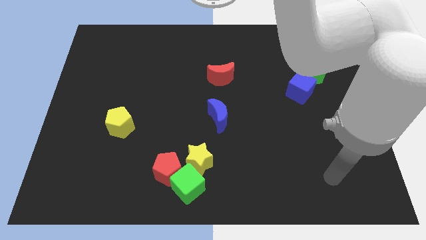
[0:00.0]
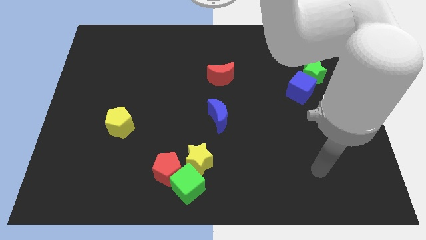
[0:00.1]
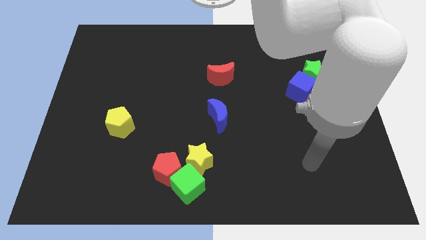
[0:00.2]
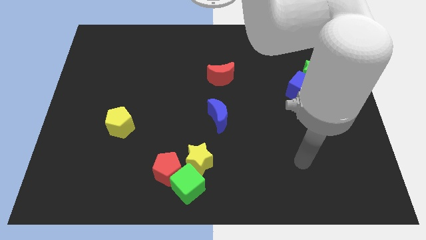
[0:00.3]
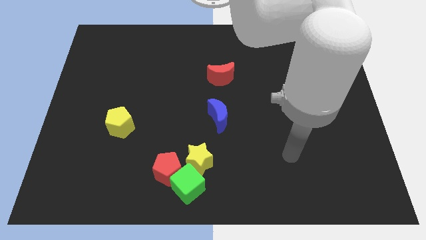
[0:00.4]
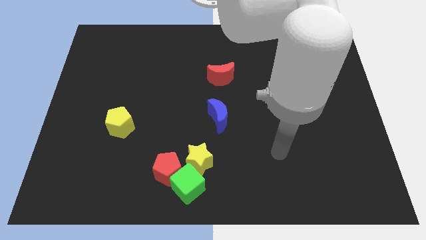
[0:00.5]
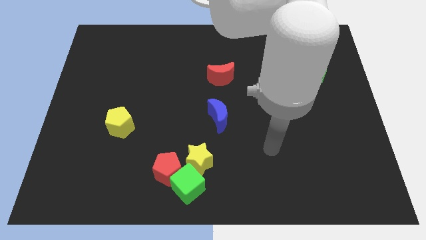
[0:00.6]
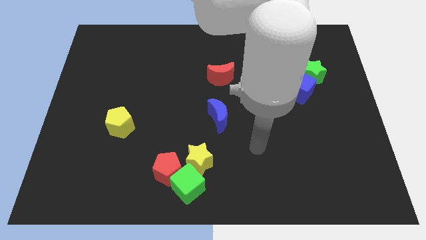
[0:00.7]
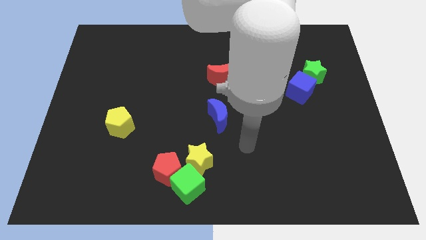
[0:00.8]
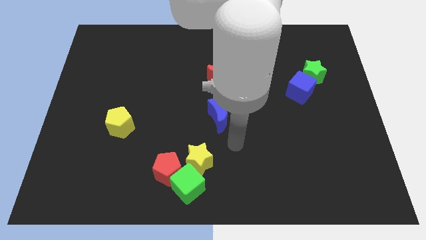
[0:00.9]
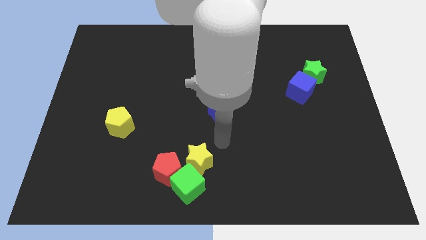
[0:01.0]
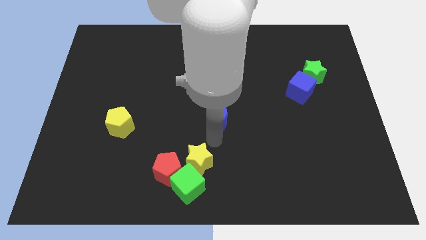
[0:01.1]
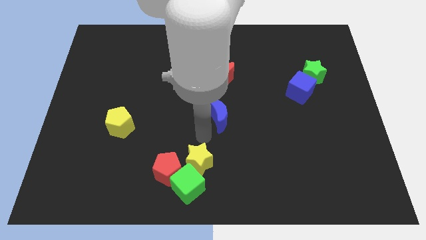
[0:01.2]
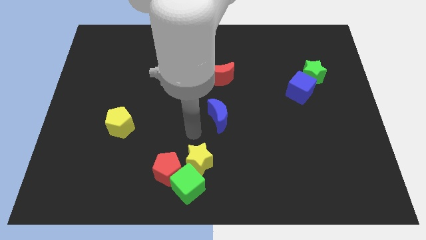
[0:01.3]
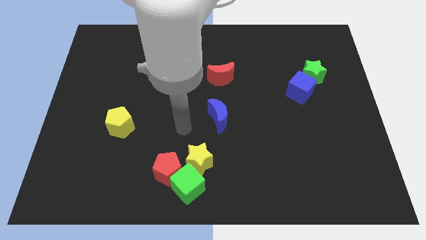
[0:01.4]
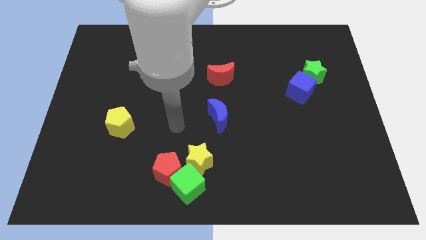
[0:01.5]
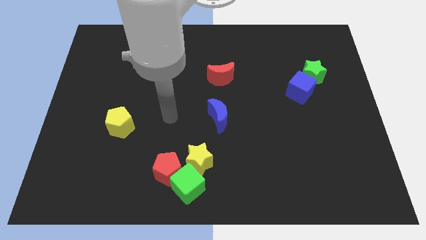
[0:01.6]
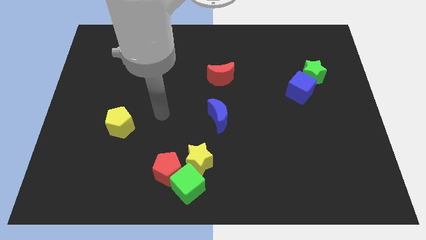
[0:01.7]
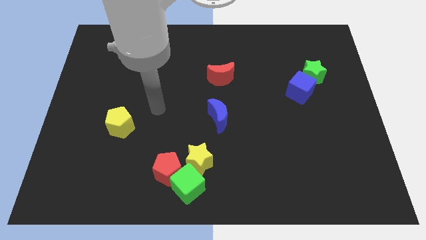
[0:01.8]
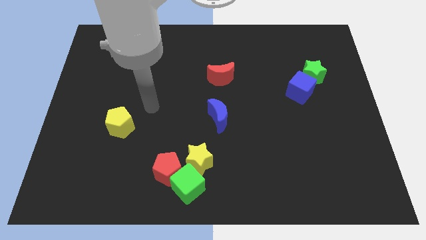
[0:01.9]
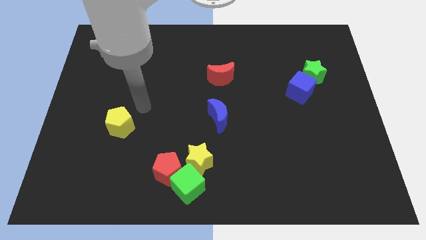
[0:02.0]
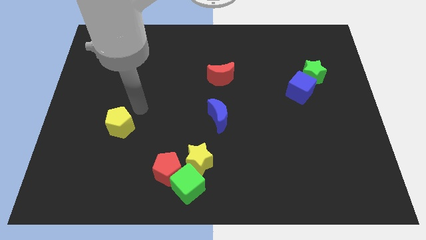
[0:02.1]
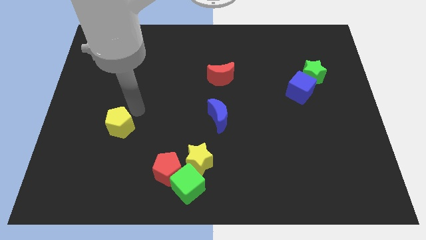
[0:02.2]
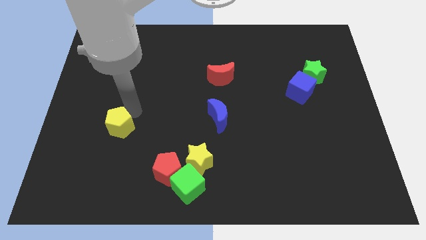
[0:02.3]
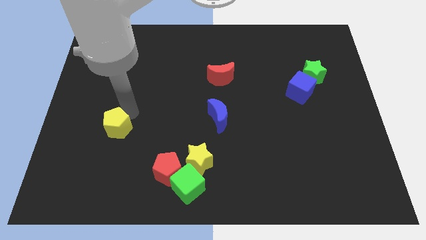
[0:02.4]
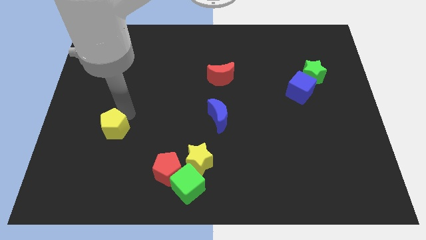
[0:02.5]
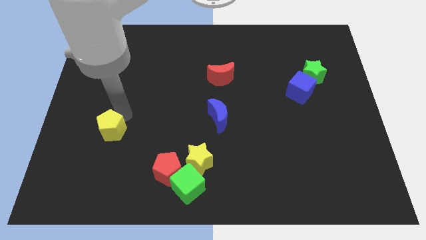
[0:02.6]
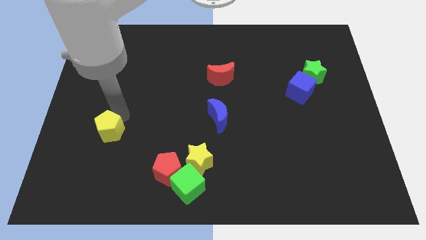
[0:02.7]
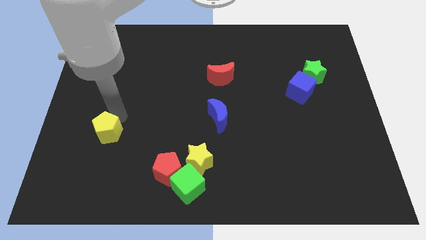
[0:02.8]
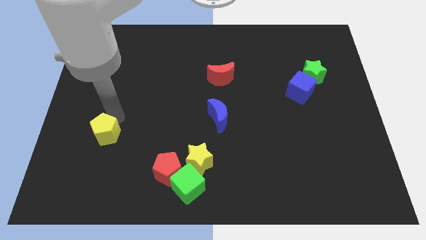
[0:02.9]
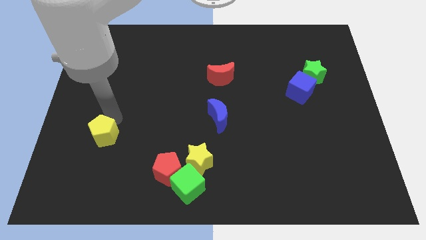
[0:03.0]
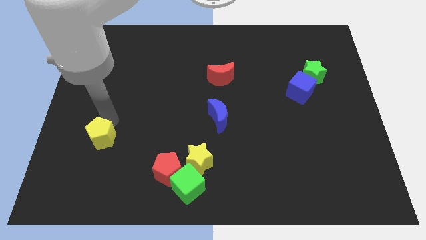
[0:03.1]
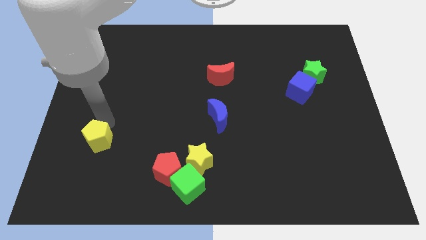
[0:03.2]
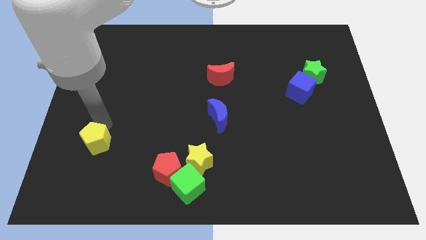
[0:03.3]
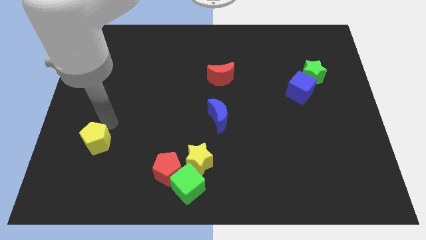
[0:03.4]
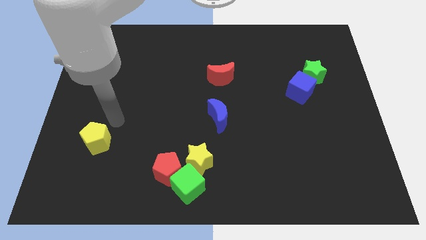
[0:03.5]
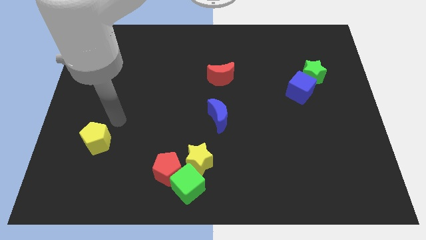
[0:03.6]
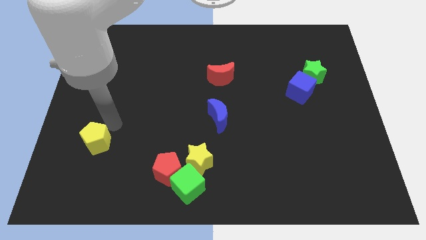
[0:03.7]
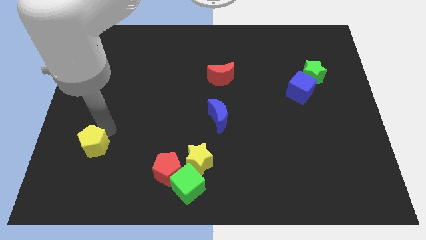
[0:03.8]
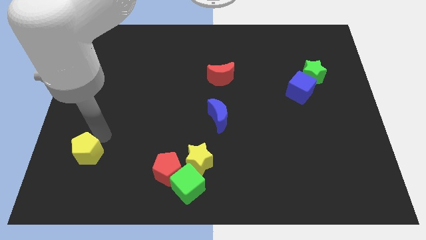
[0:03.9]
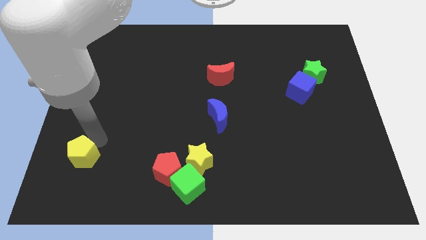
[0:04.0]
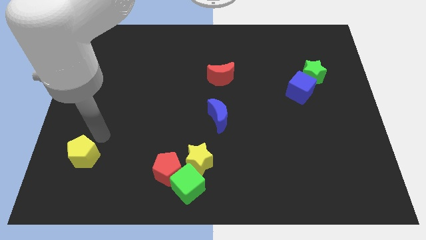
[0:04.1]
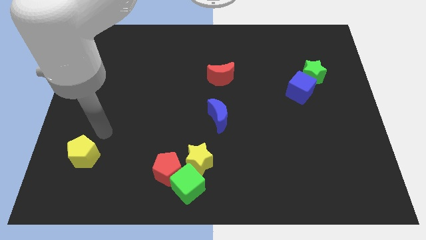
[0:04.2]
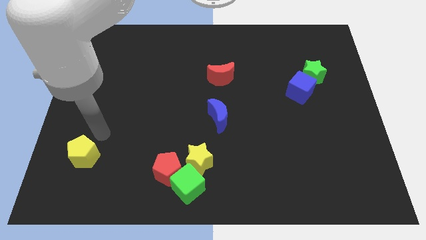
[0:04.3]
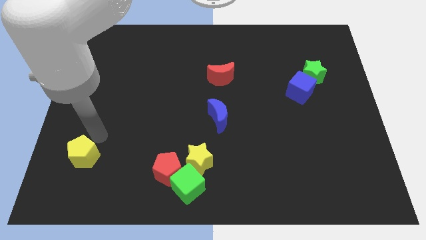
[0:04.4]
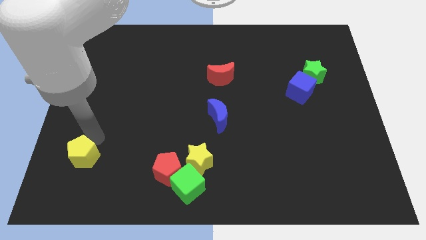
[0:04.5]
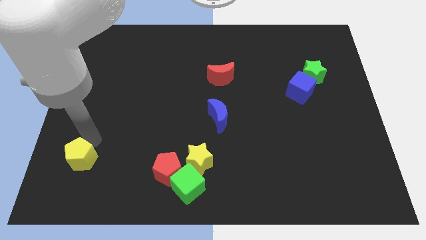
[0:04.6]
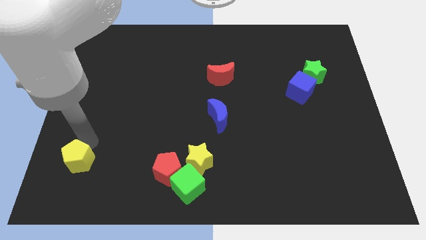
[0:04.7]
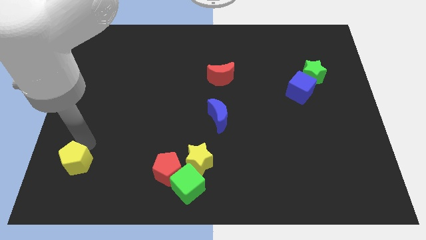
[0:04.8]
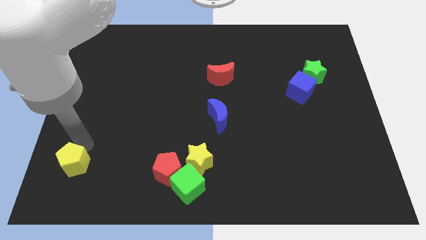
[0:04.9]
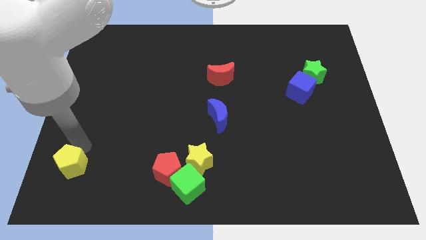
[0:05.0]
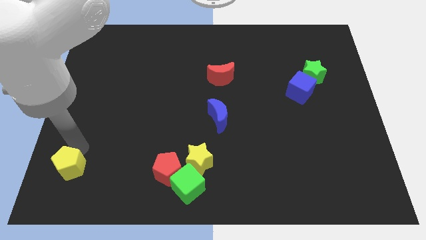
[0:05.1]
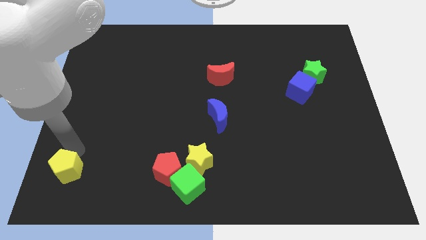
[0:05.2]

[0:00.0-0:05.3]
push the yellow pentagon to the lower left corner

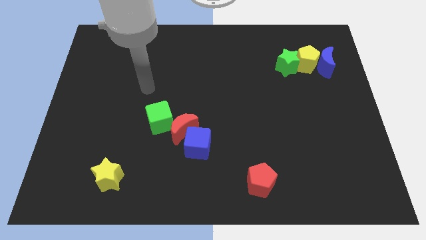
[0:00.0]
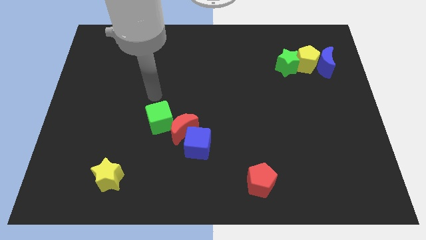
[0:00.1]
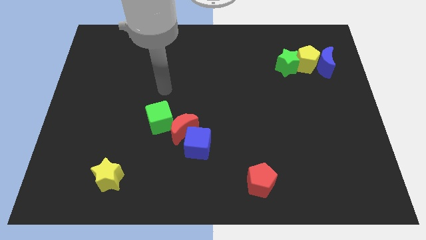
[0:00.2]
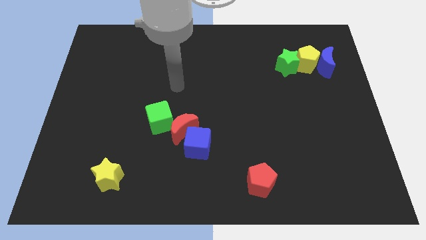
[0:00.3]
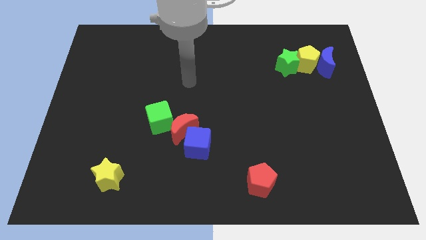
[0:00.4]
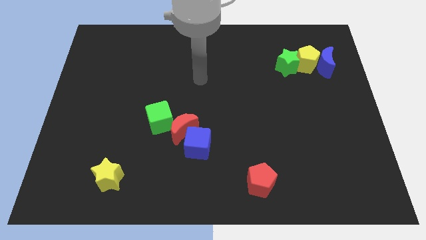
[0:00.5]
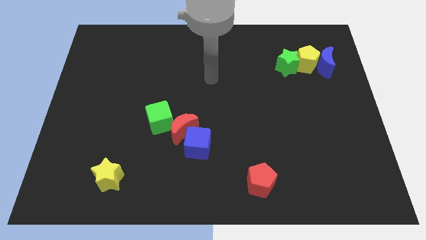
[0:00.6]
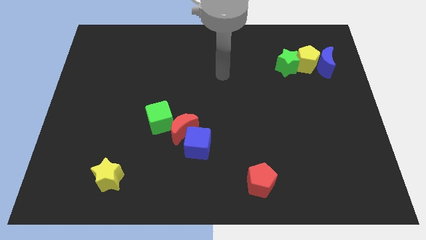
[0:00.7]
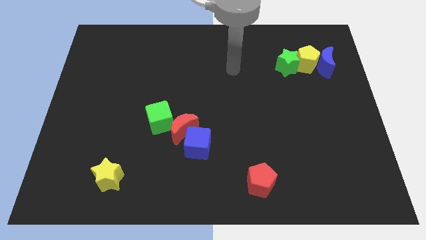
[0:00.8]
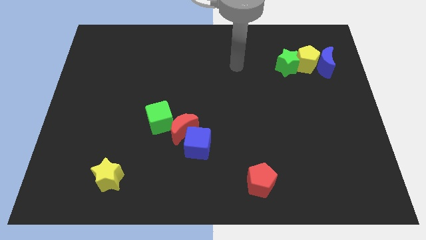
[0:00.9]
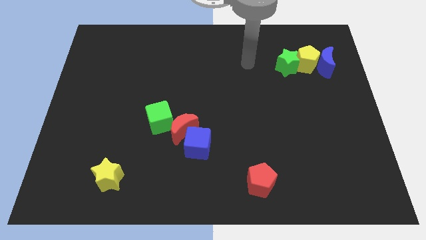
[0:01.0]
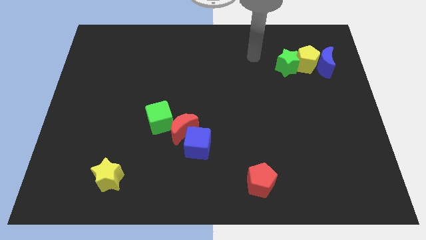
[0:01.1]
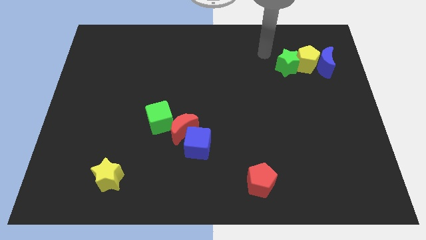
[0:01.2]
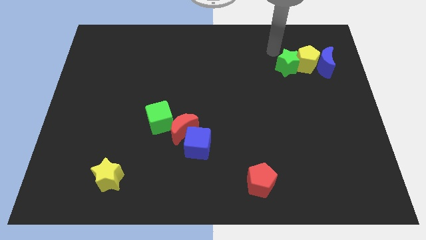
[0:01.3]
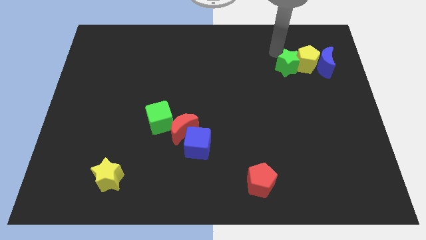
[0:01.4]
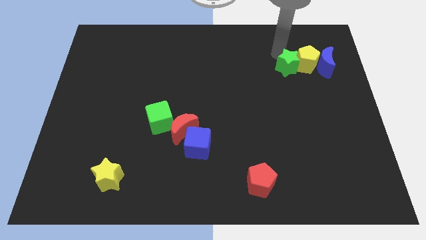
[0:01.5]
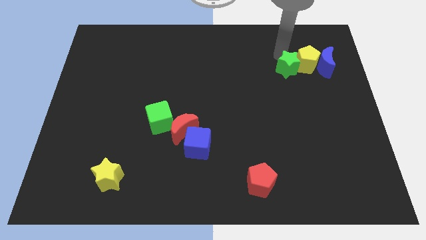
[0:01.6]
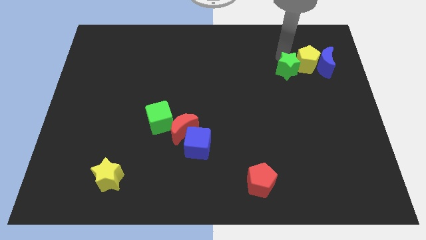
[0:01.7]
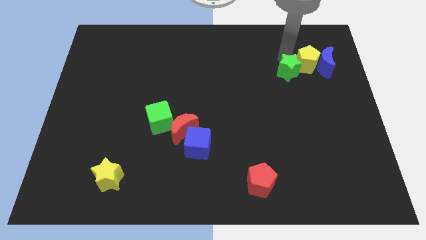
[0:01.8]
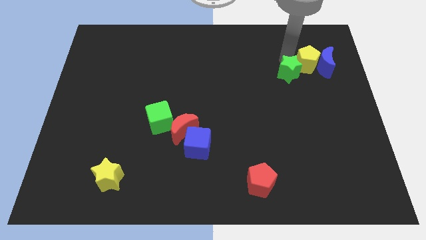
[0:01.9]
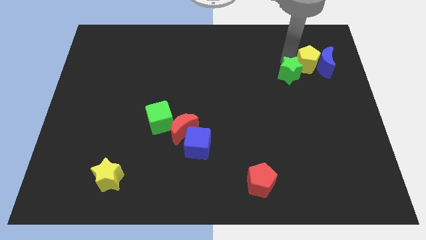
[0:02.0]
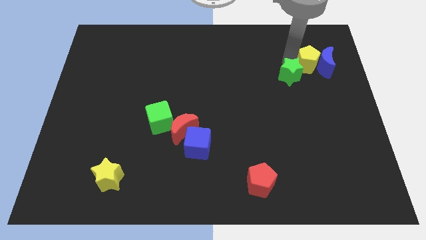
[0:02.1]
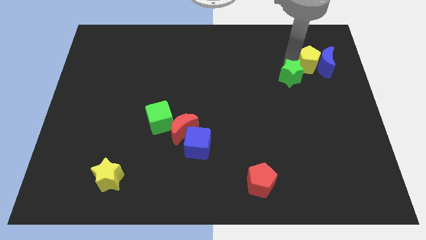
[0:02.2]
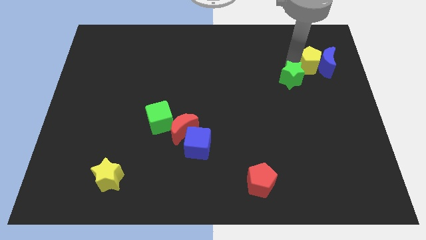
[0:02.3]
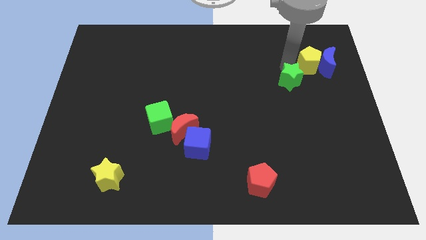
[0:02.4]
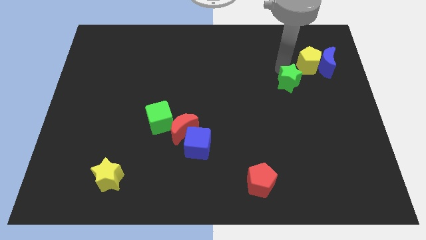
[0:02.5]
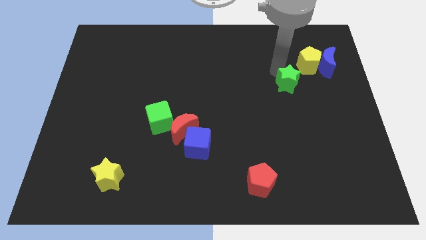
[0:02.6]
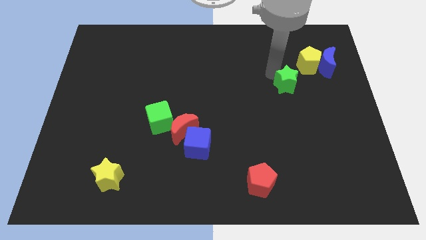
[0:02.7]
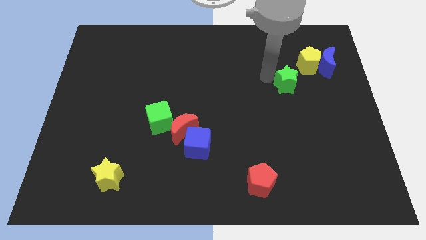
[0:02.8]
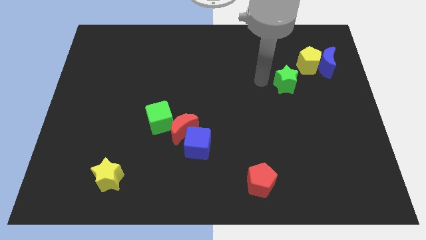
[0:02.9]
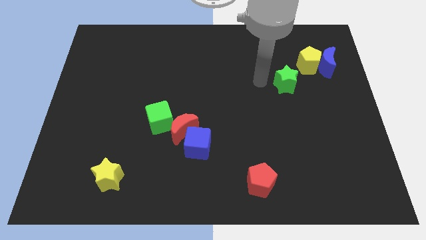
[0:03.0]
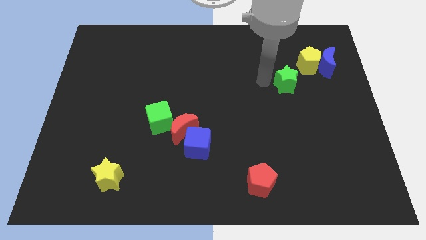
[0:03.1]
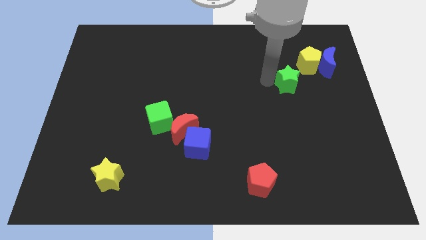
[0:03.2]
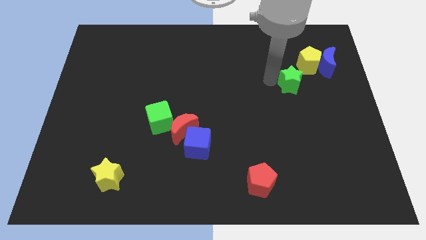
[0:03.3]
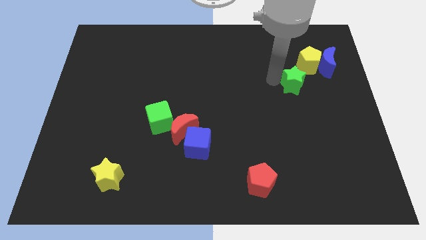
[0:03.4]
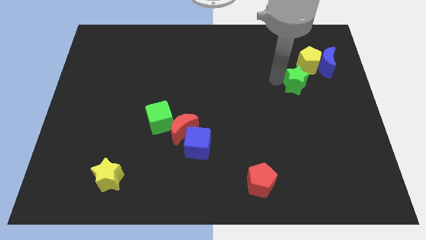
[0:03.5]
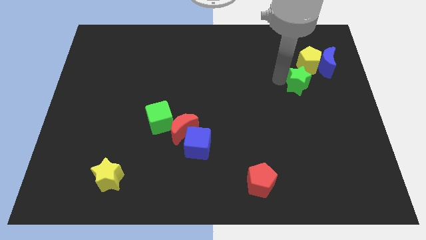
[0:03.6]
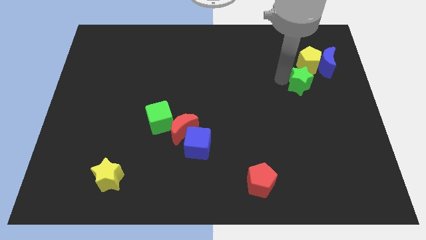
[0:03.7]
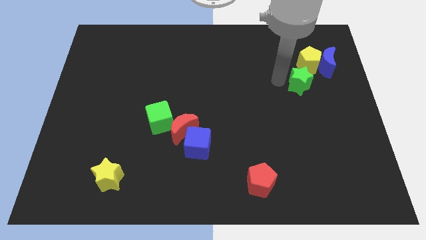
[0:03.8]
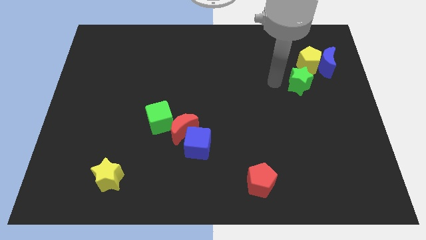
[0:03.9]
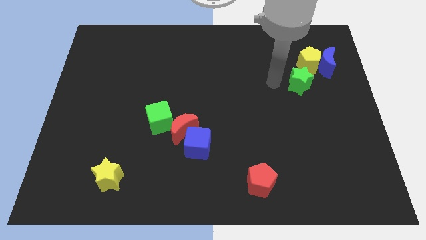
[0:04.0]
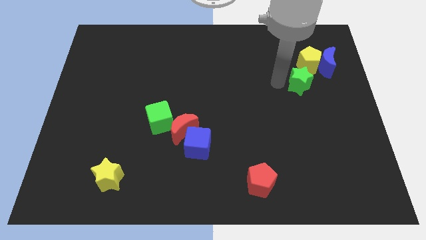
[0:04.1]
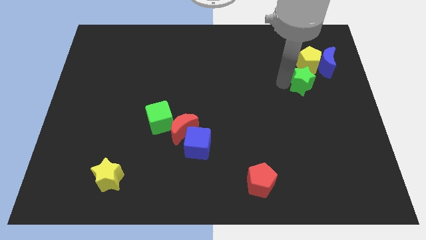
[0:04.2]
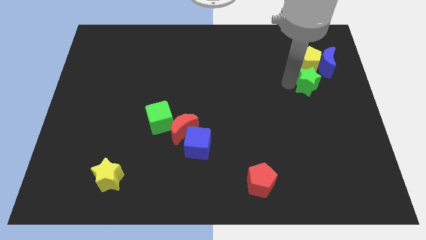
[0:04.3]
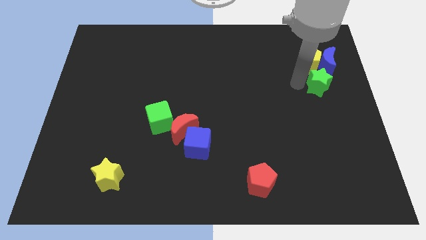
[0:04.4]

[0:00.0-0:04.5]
move the green star to the center right
